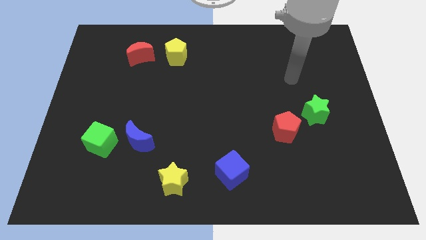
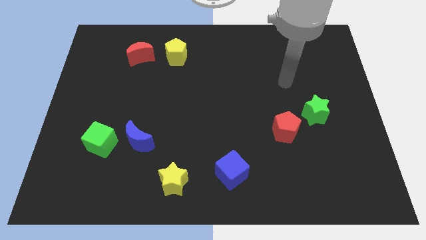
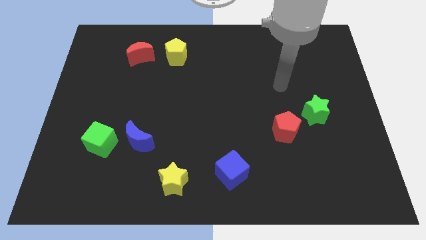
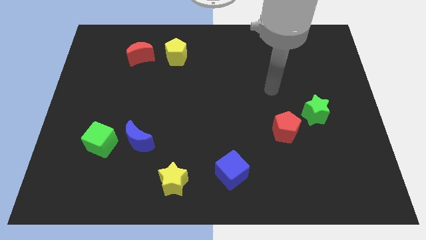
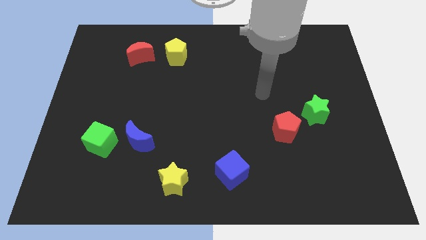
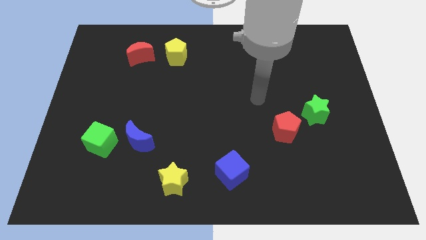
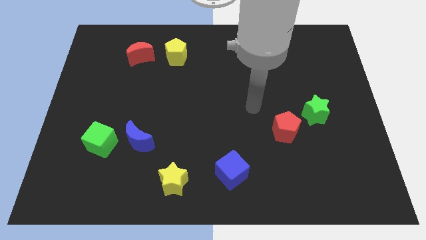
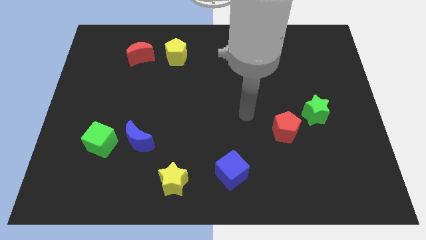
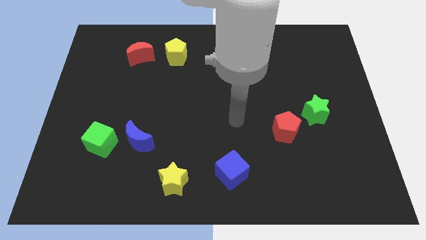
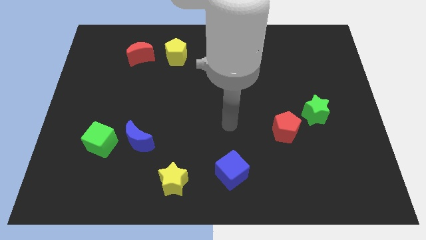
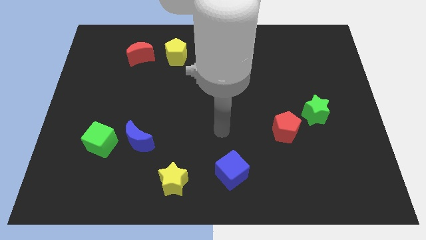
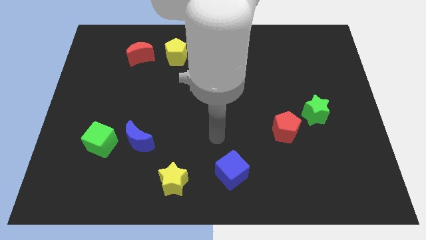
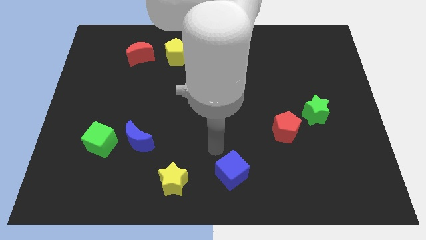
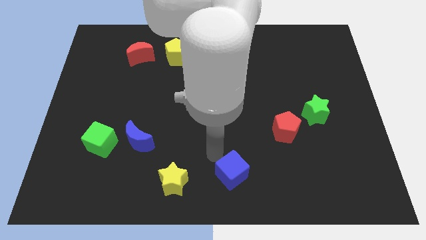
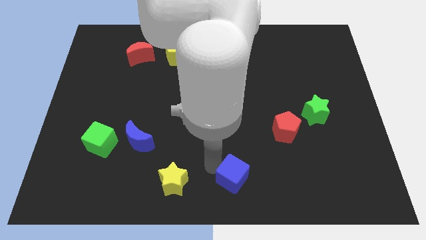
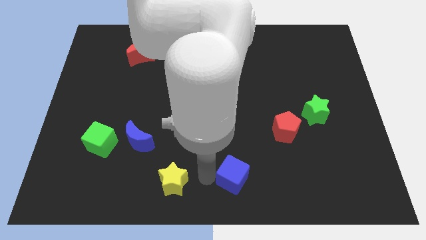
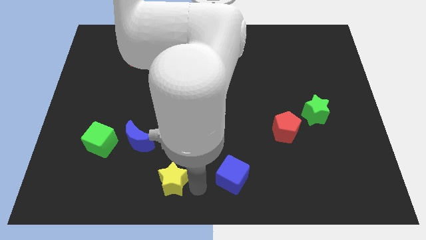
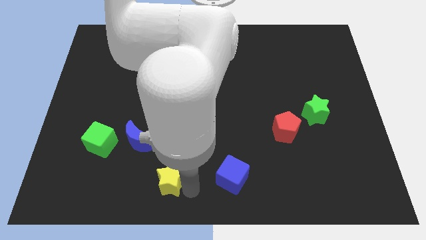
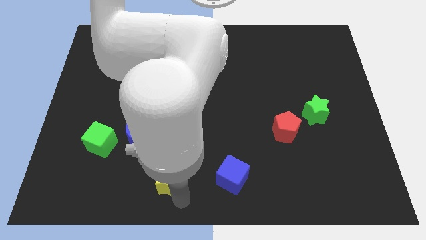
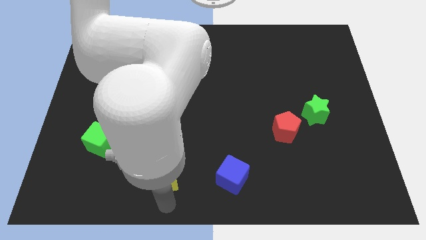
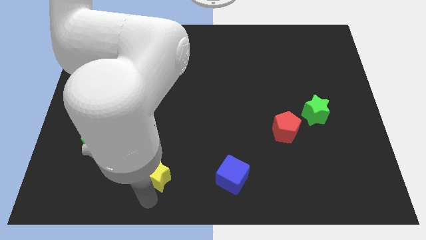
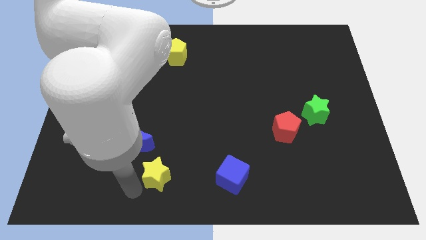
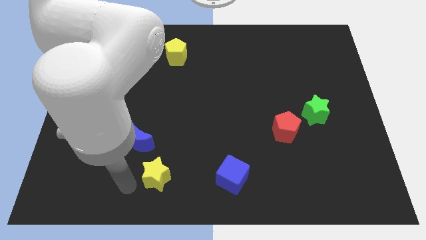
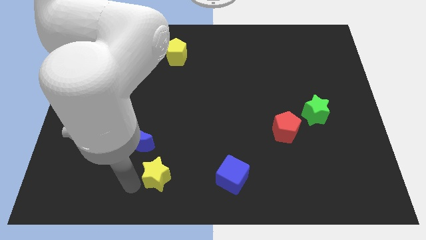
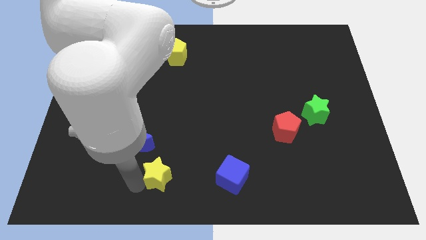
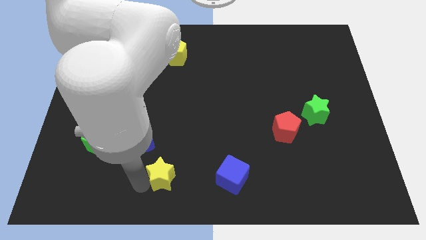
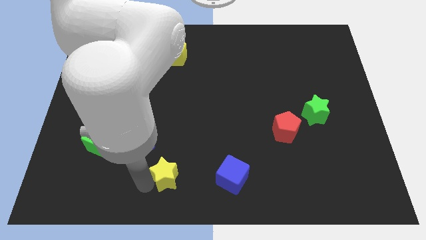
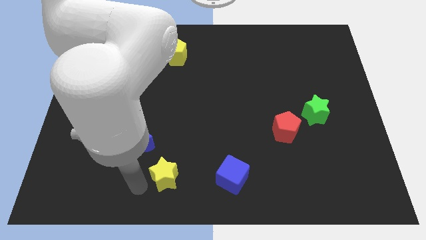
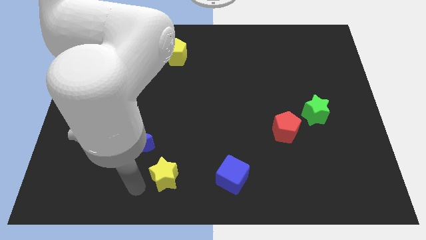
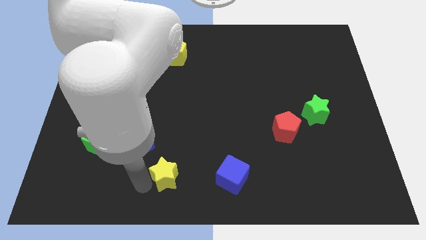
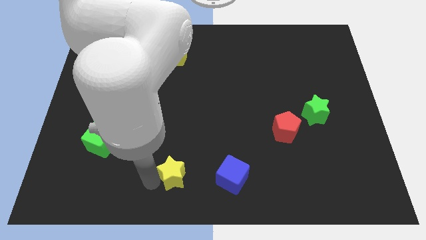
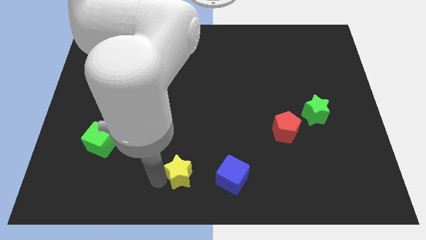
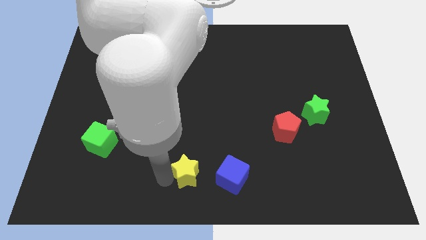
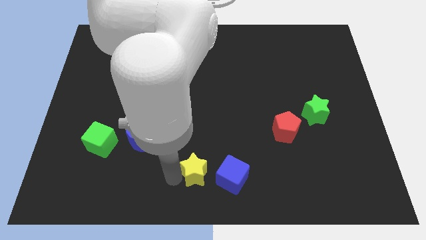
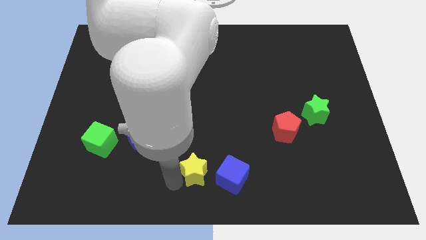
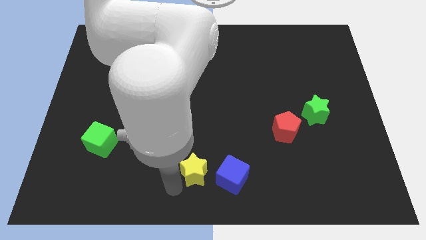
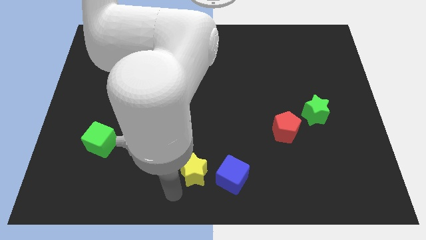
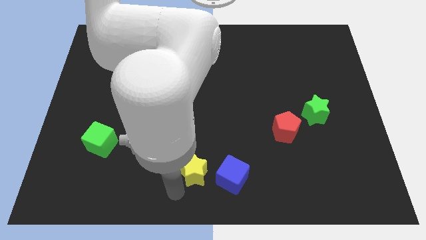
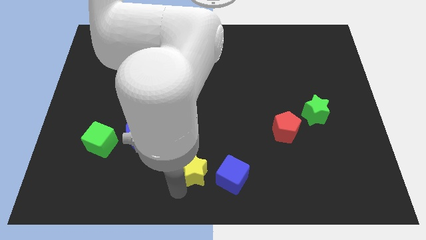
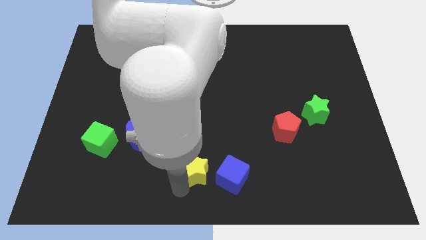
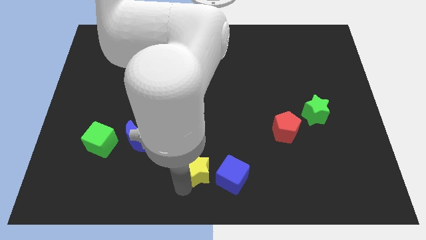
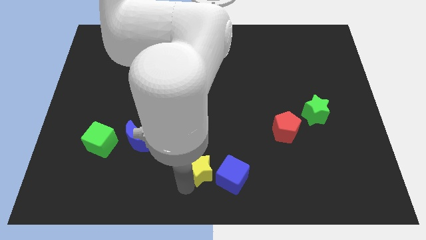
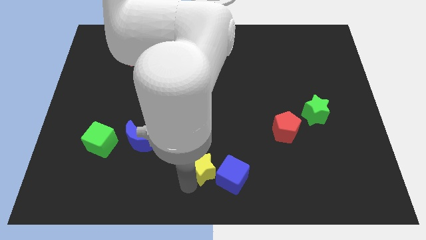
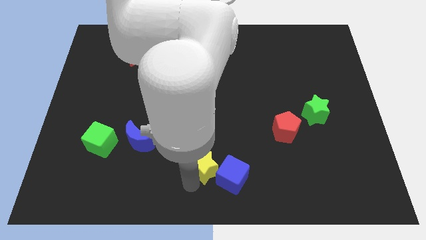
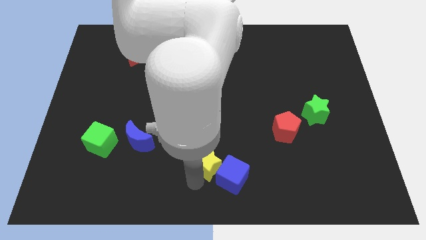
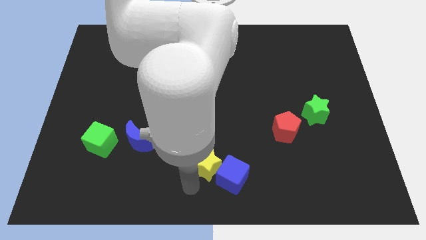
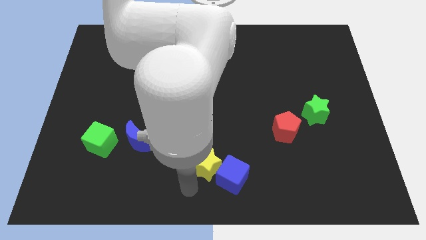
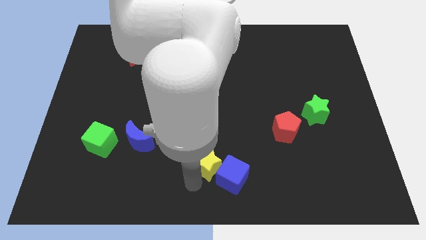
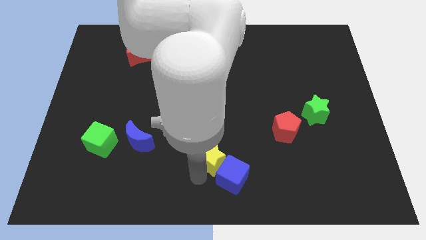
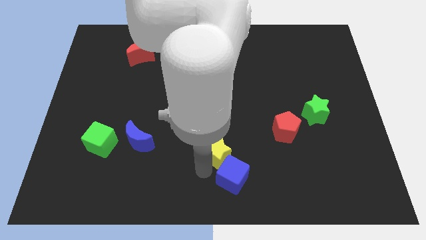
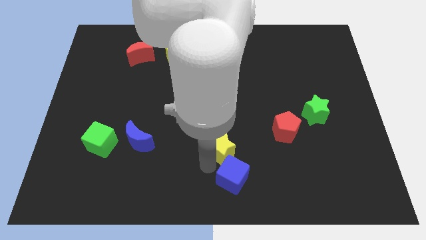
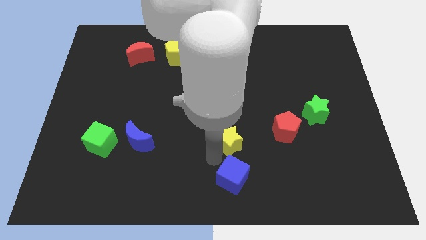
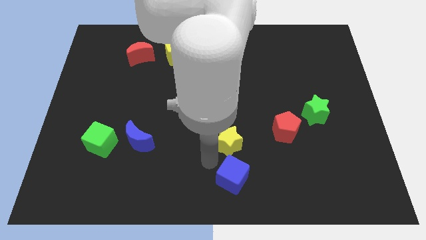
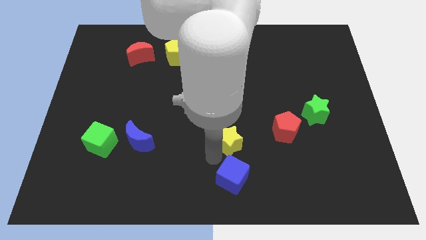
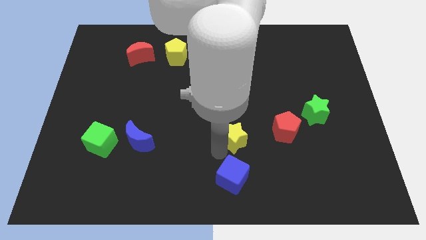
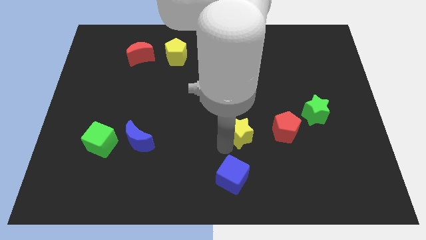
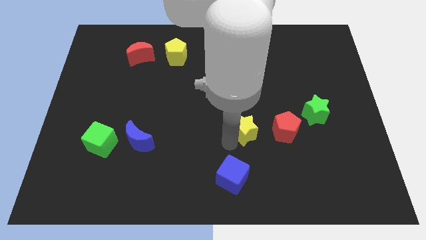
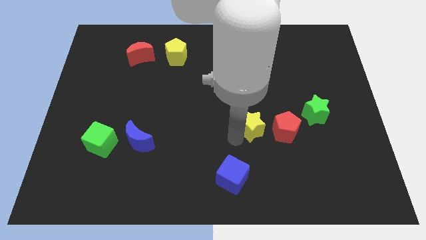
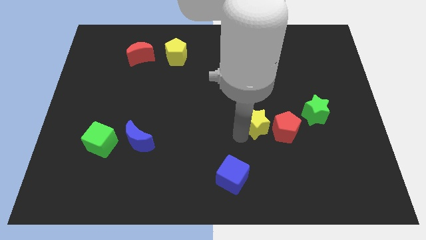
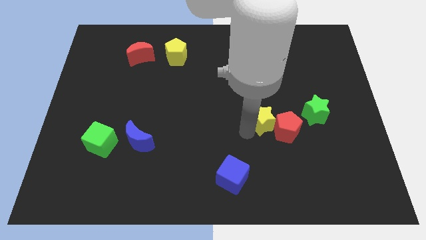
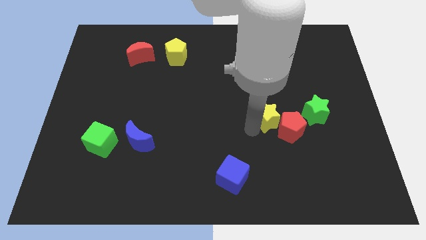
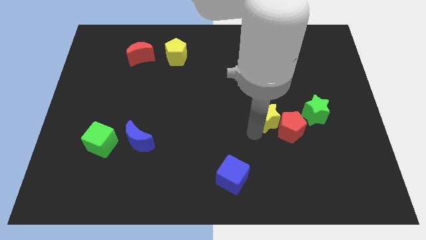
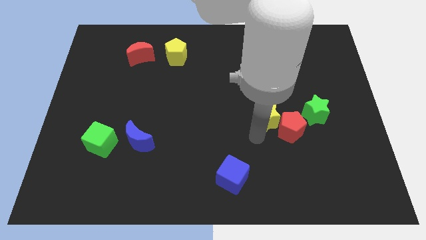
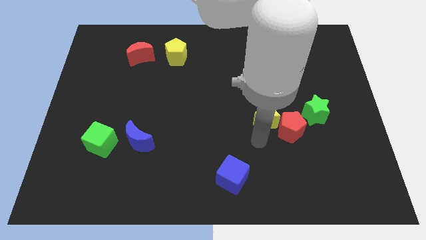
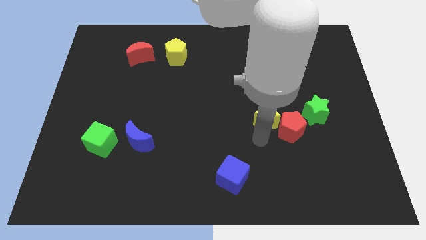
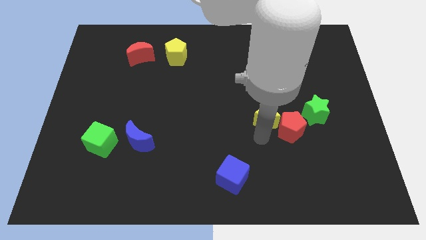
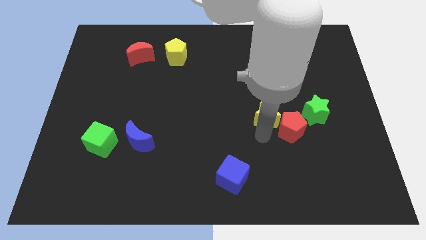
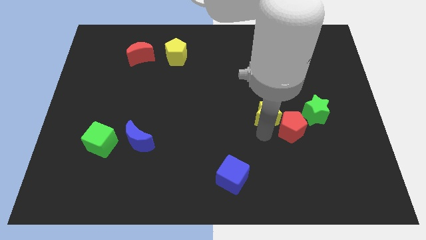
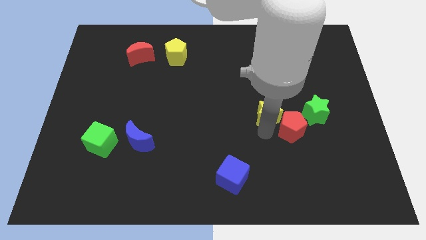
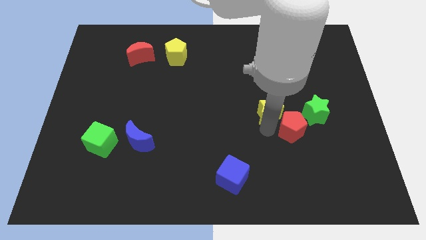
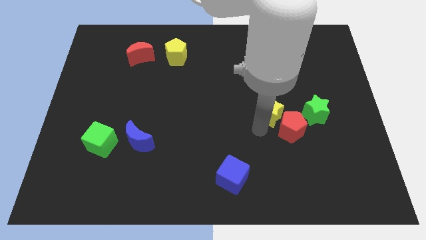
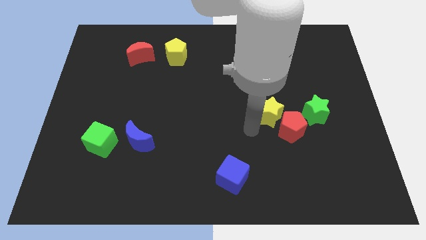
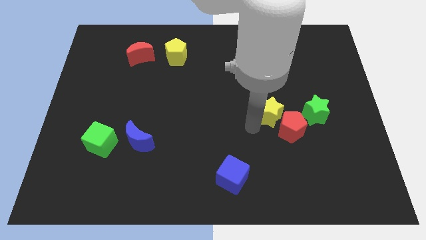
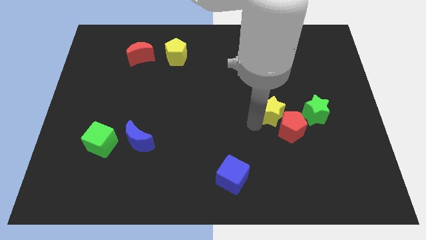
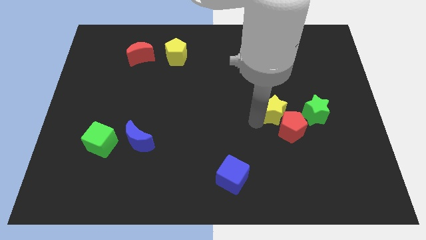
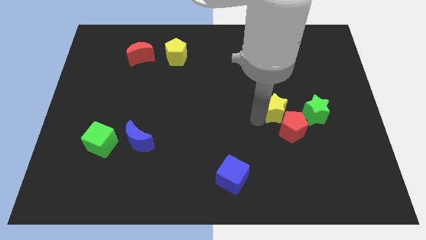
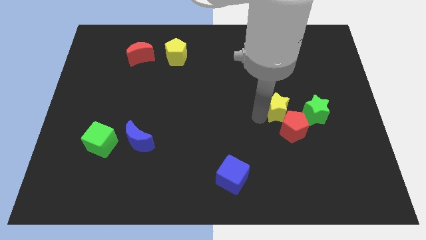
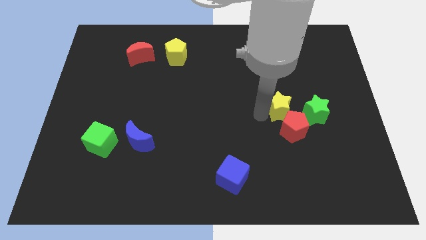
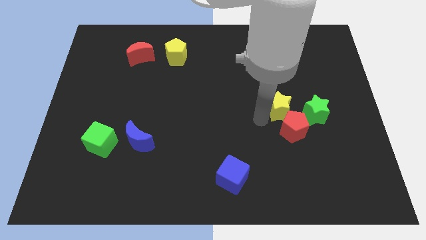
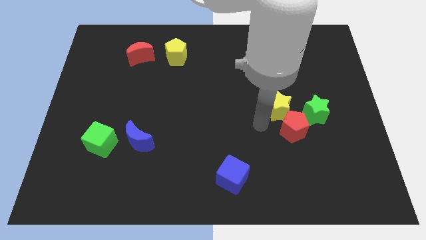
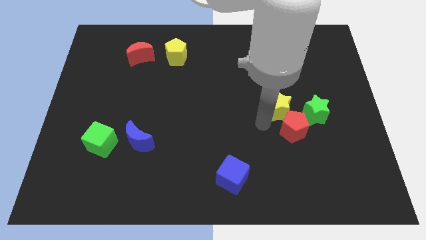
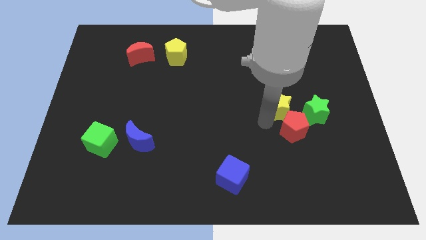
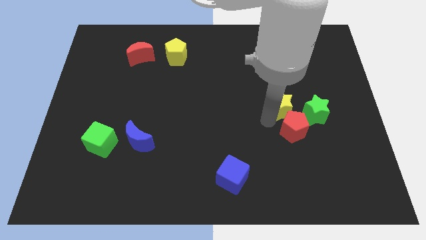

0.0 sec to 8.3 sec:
slide the yellow star to the top left of the green star
